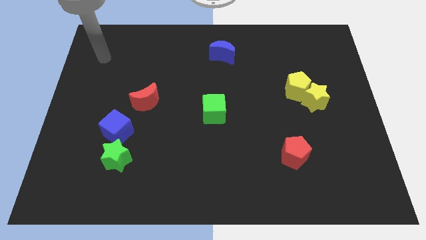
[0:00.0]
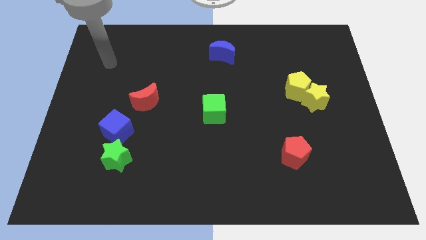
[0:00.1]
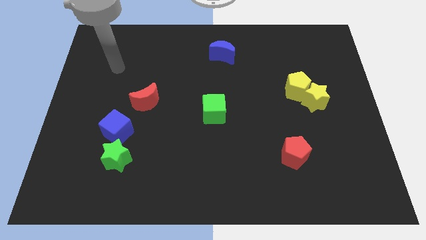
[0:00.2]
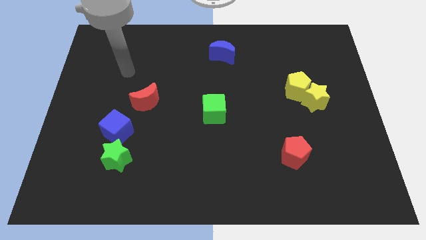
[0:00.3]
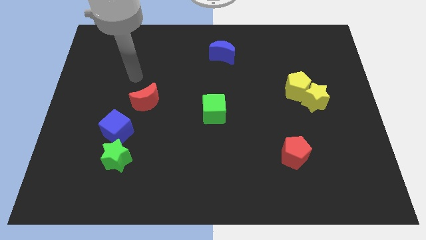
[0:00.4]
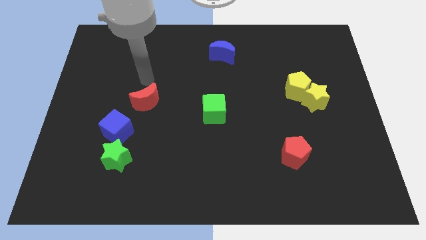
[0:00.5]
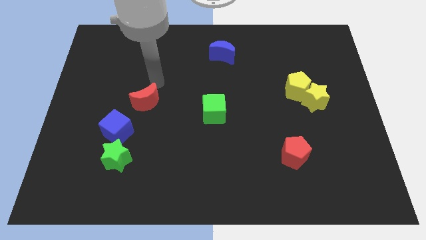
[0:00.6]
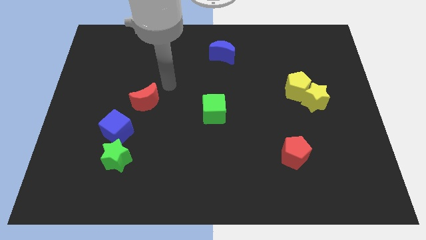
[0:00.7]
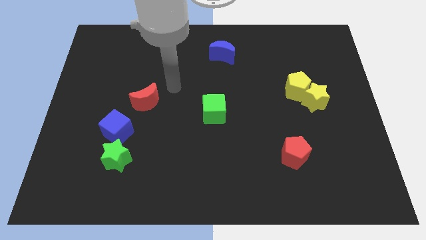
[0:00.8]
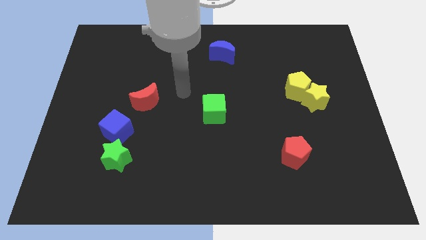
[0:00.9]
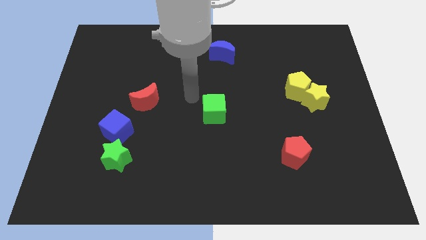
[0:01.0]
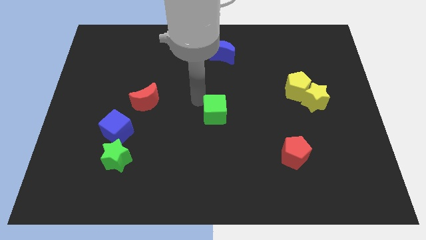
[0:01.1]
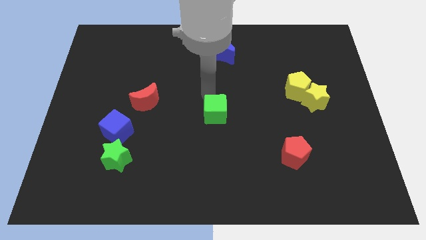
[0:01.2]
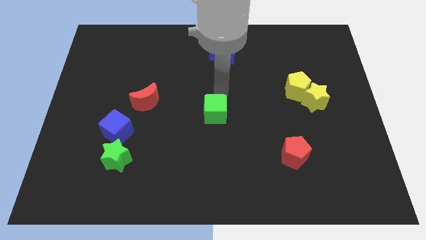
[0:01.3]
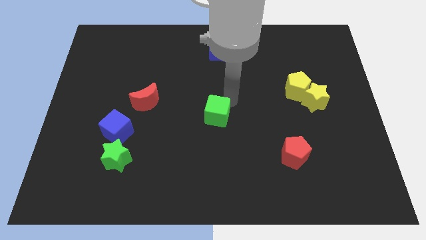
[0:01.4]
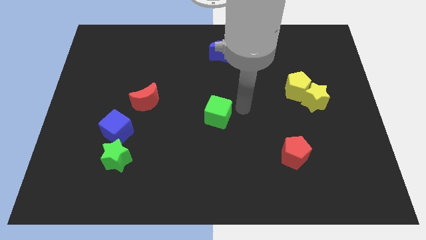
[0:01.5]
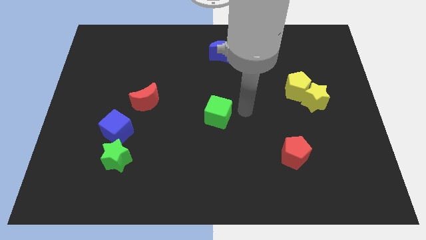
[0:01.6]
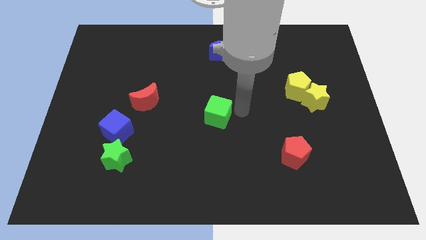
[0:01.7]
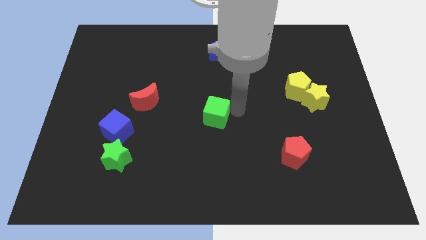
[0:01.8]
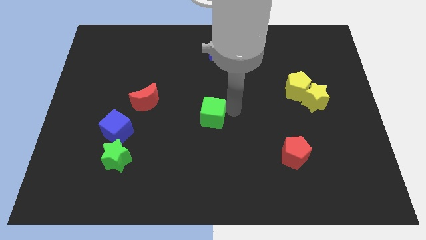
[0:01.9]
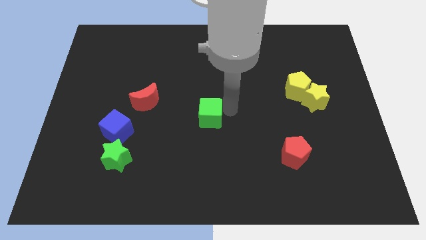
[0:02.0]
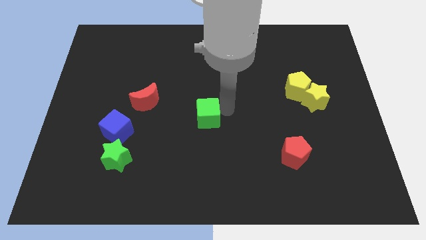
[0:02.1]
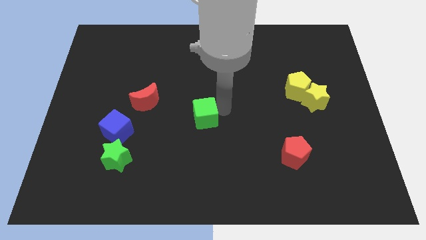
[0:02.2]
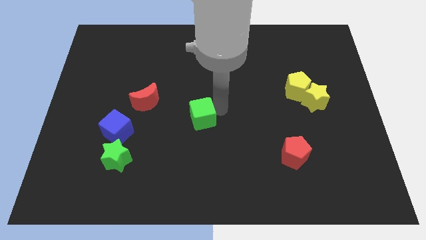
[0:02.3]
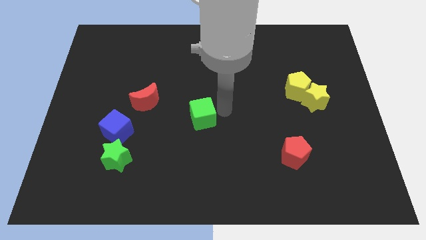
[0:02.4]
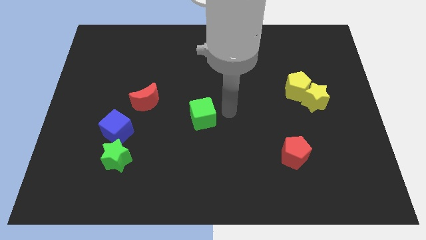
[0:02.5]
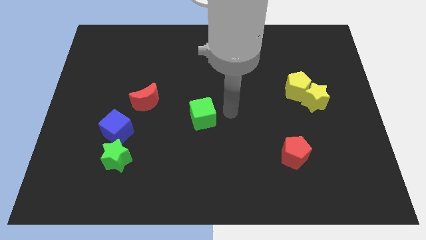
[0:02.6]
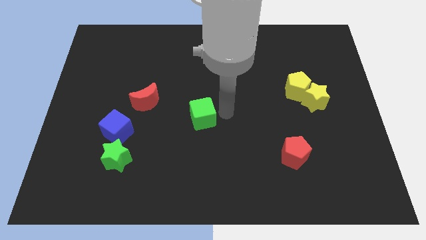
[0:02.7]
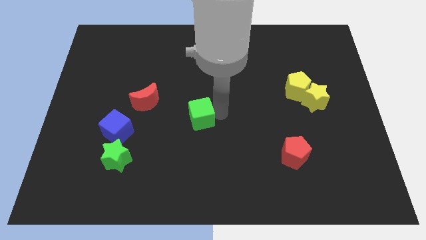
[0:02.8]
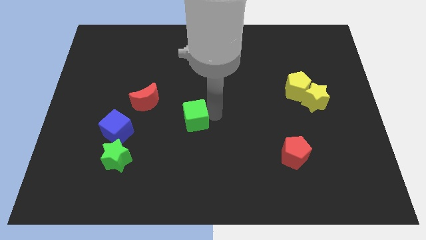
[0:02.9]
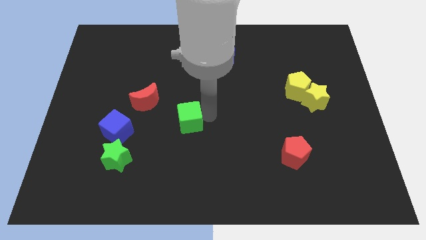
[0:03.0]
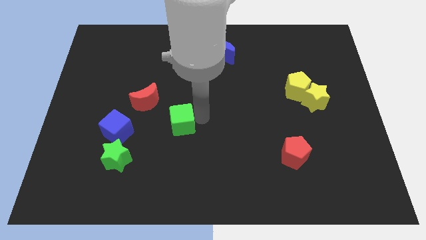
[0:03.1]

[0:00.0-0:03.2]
slightly move the green cube to the left

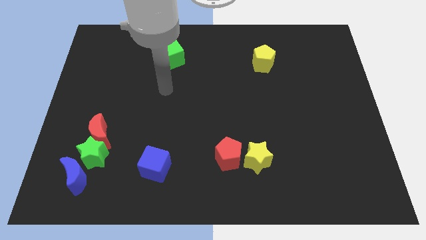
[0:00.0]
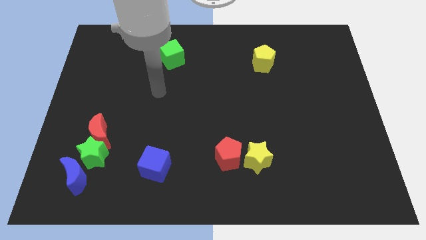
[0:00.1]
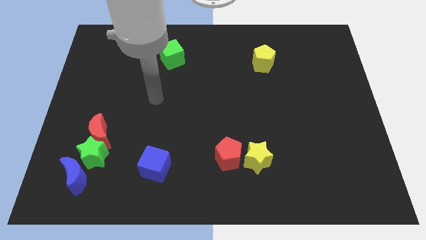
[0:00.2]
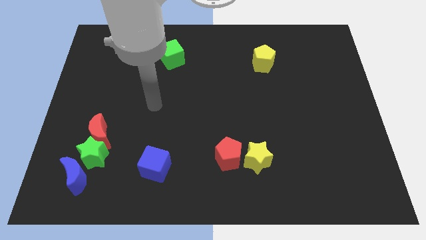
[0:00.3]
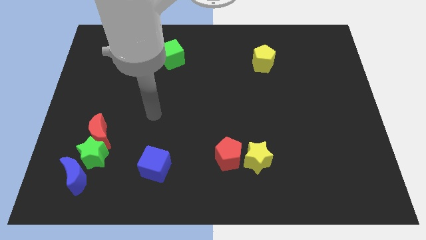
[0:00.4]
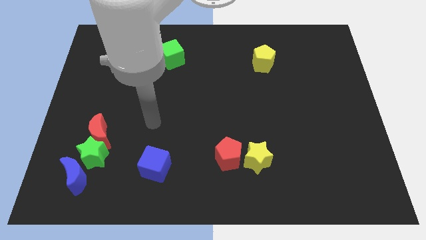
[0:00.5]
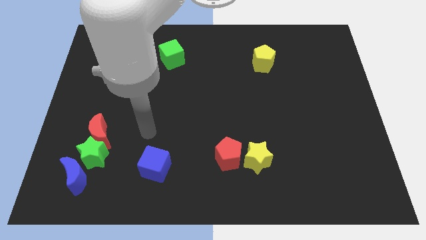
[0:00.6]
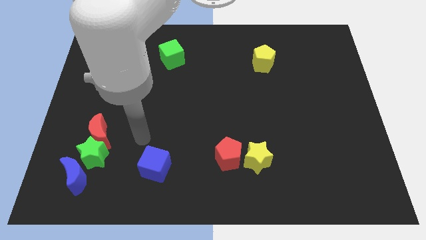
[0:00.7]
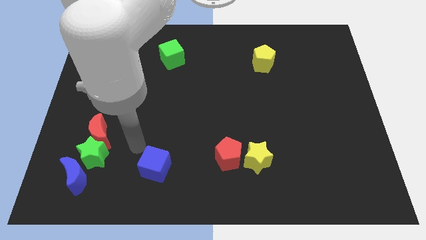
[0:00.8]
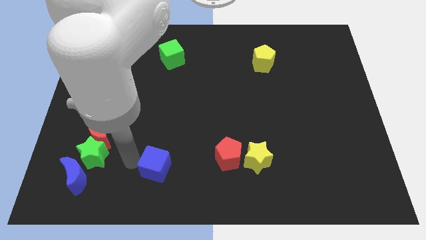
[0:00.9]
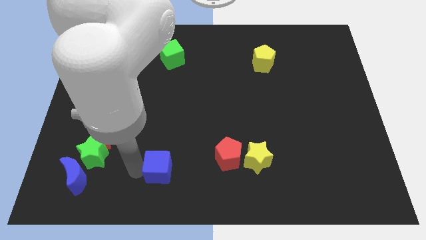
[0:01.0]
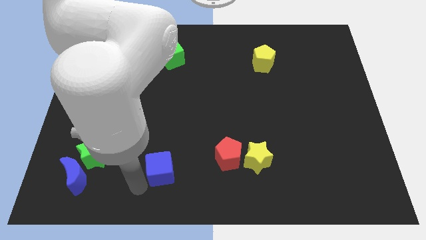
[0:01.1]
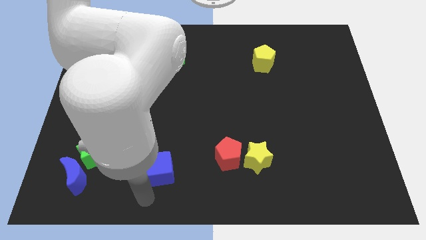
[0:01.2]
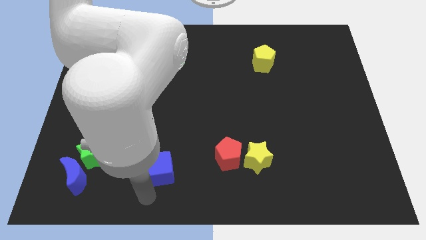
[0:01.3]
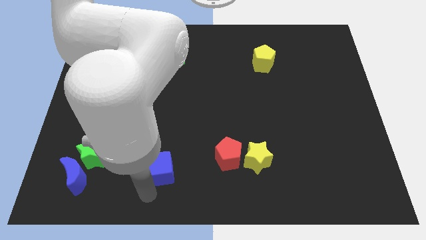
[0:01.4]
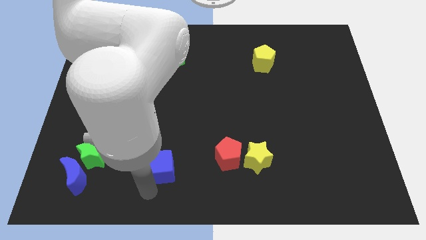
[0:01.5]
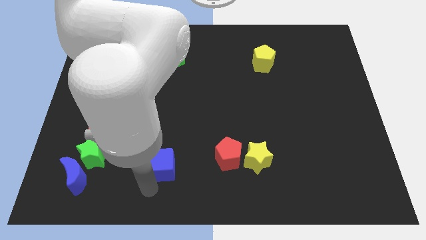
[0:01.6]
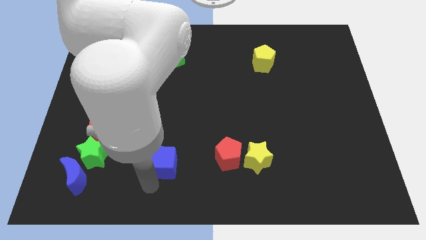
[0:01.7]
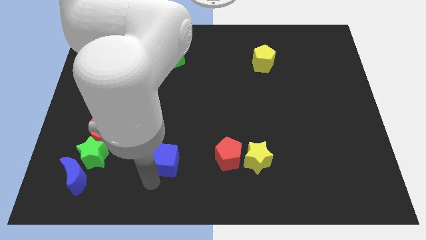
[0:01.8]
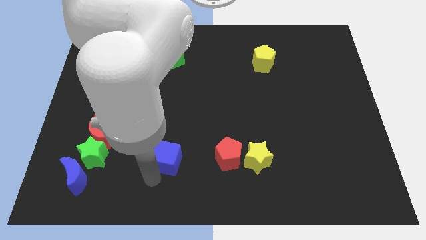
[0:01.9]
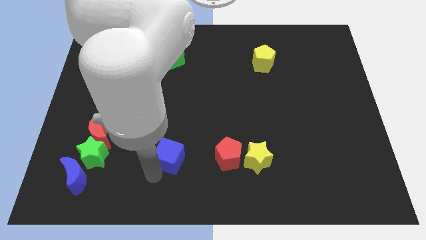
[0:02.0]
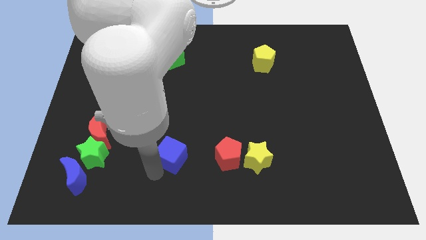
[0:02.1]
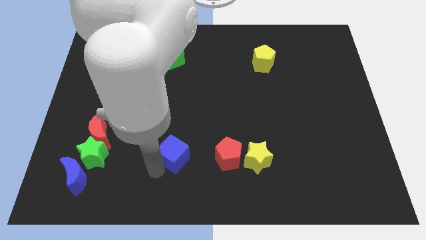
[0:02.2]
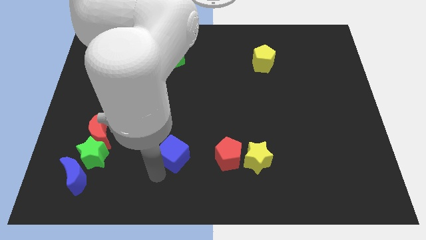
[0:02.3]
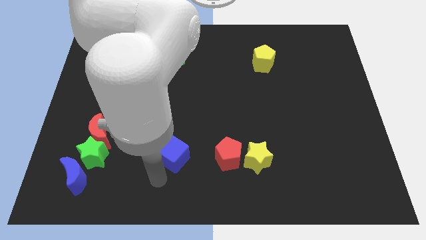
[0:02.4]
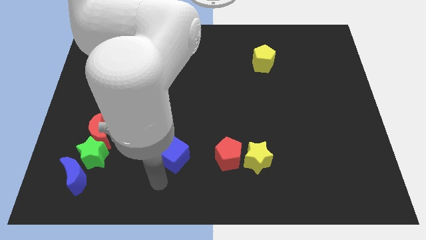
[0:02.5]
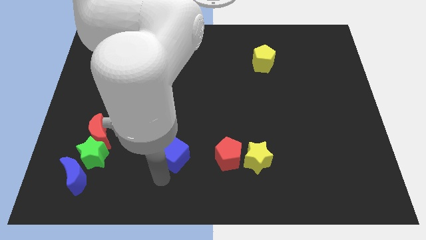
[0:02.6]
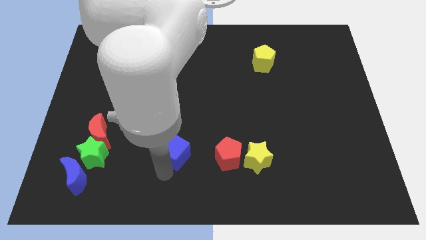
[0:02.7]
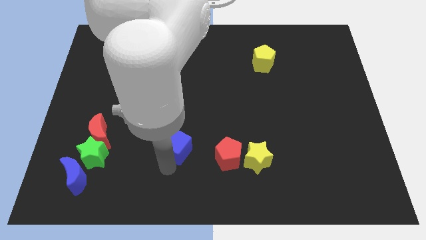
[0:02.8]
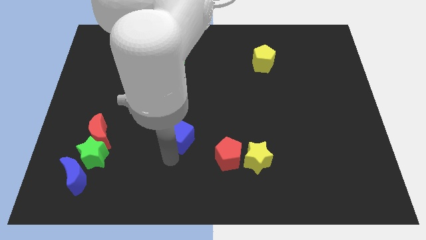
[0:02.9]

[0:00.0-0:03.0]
slightly move the blue cube upwards and right

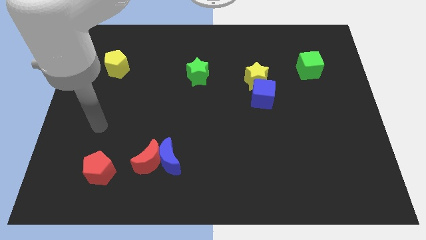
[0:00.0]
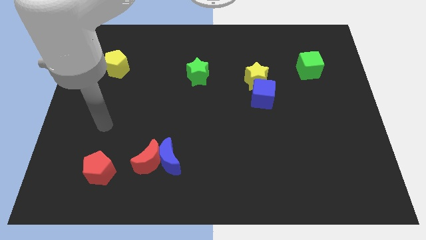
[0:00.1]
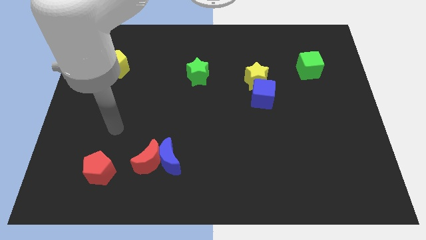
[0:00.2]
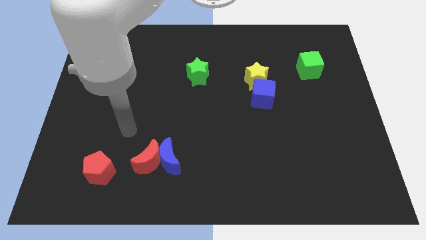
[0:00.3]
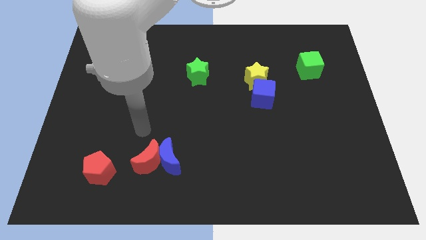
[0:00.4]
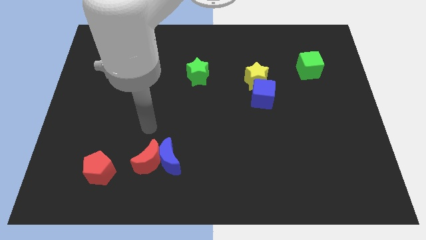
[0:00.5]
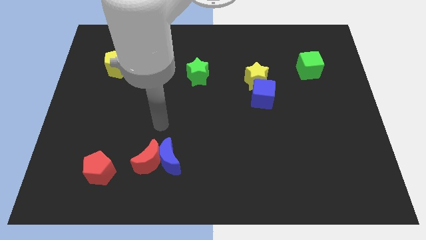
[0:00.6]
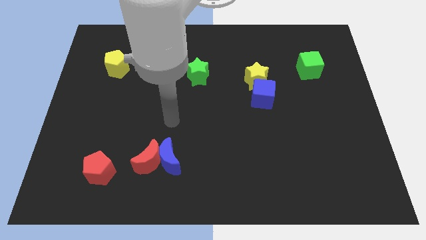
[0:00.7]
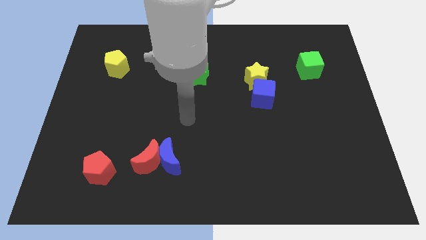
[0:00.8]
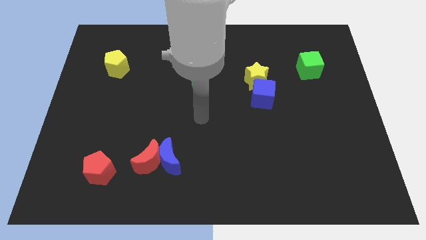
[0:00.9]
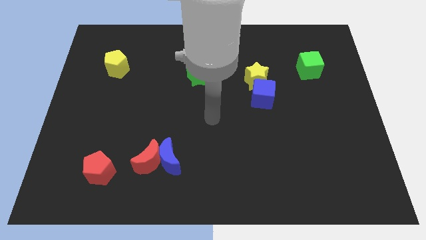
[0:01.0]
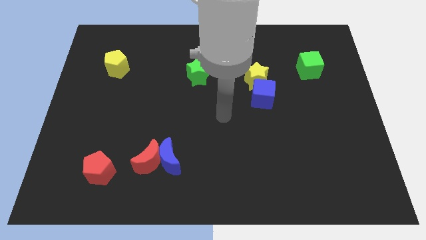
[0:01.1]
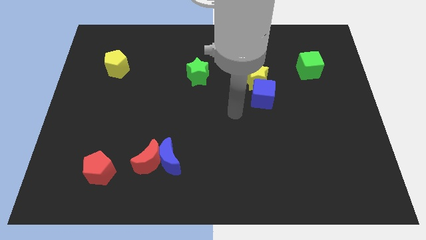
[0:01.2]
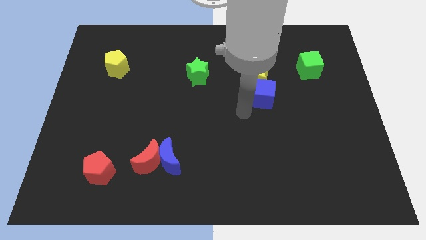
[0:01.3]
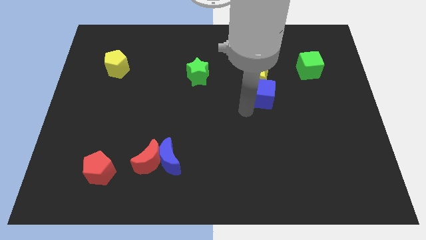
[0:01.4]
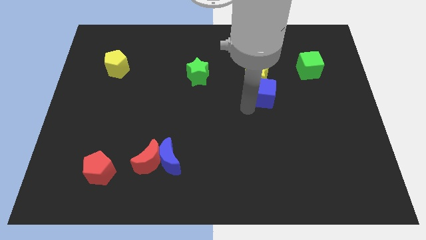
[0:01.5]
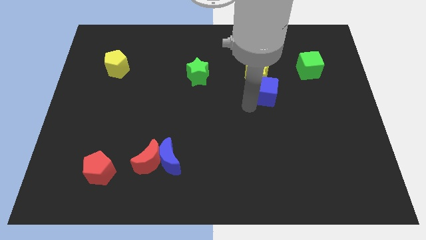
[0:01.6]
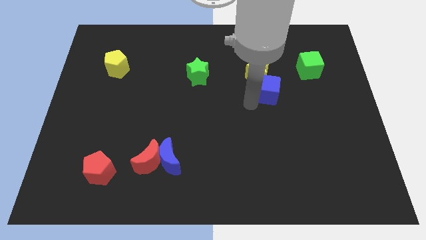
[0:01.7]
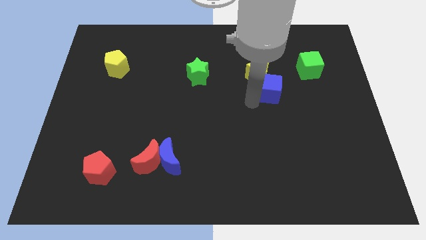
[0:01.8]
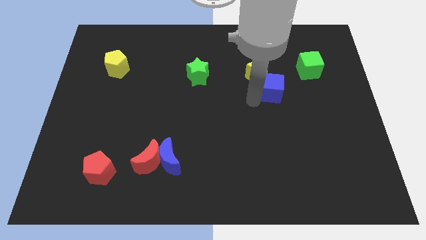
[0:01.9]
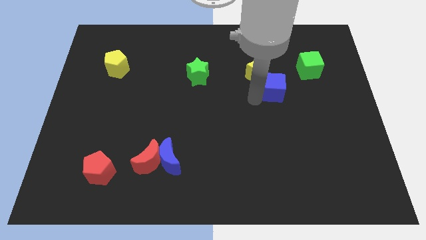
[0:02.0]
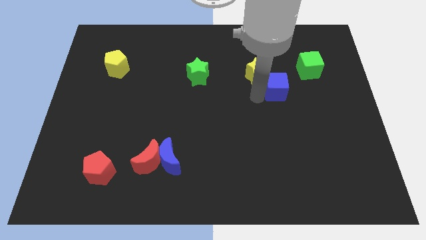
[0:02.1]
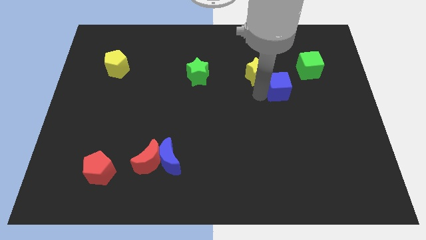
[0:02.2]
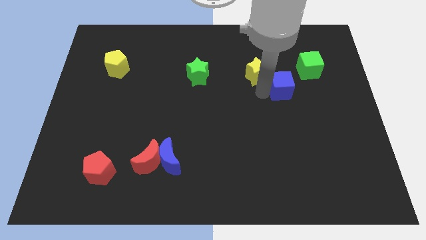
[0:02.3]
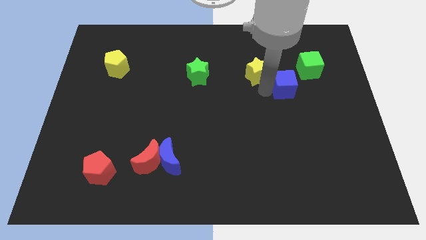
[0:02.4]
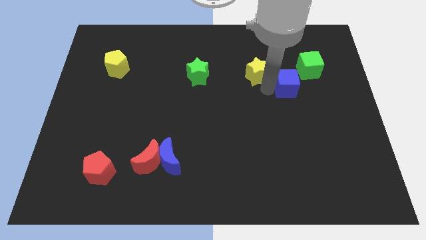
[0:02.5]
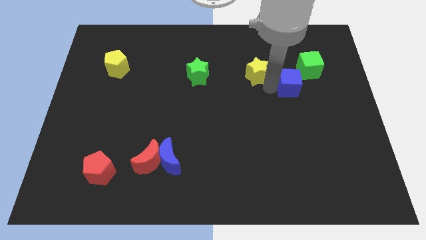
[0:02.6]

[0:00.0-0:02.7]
push the blue cube a bit upwards and to the right
